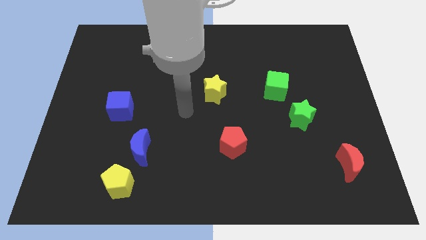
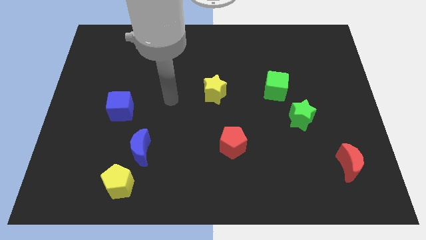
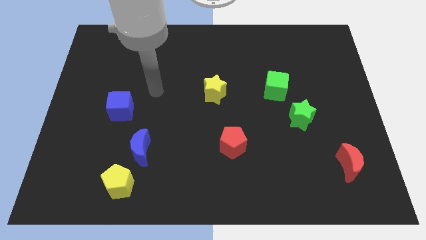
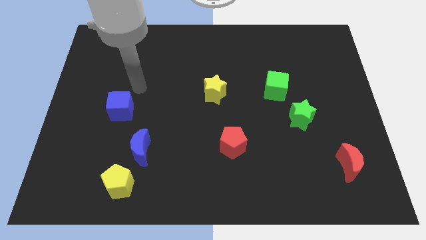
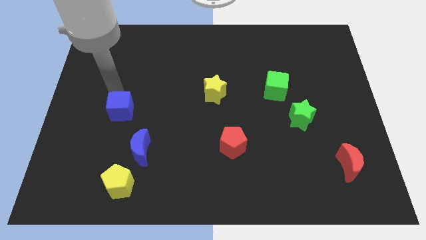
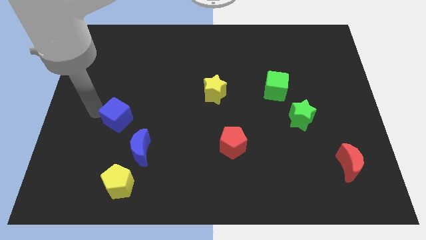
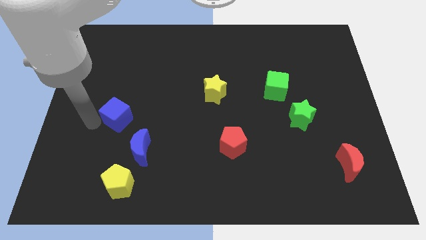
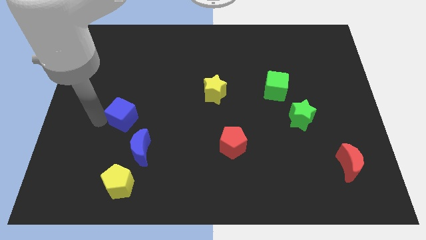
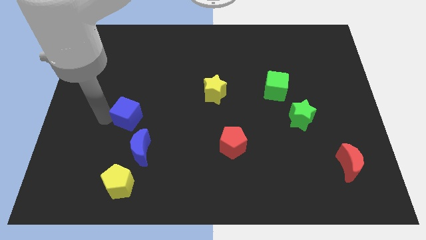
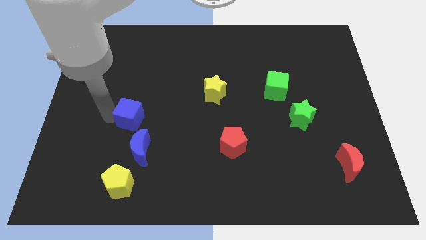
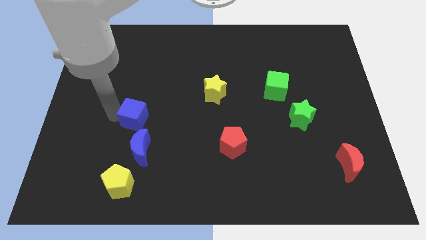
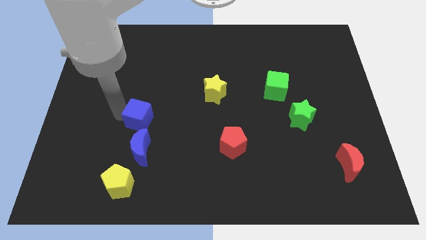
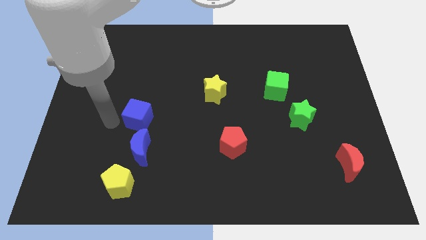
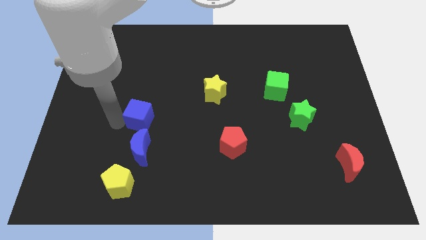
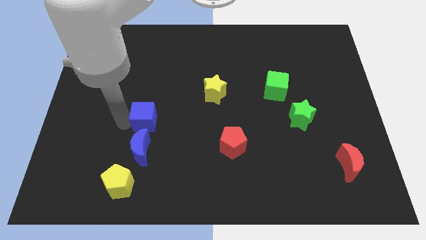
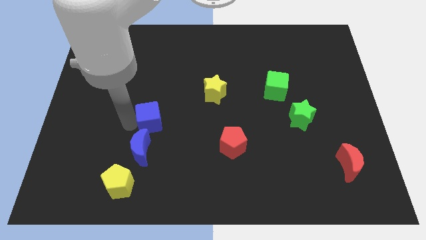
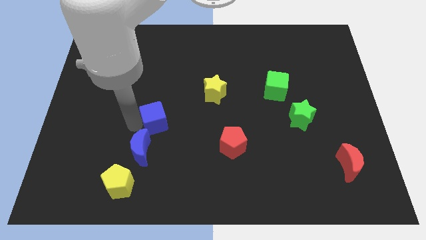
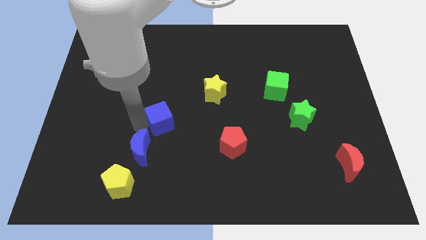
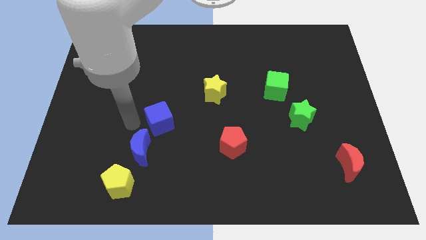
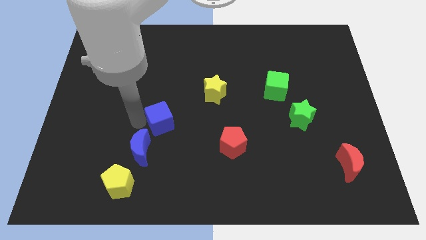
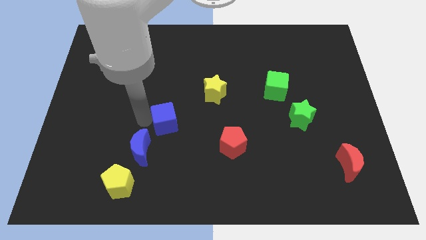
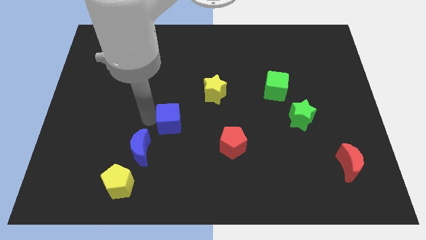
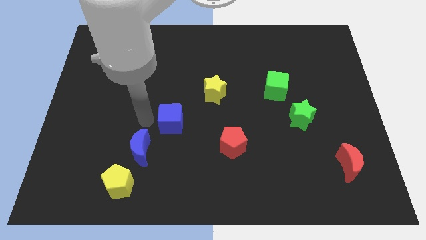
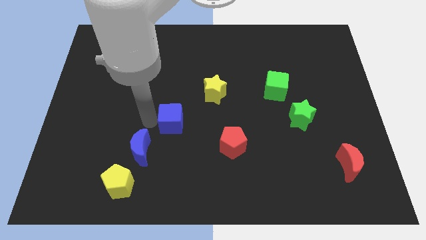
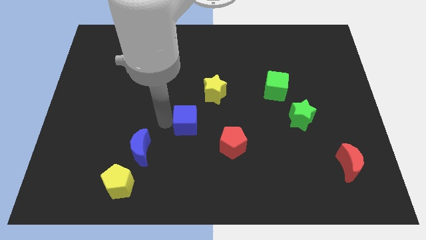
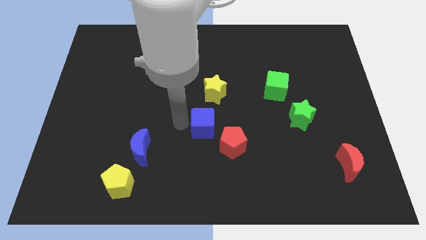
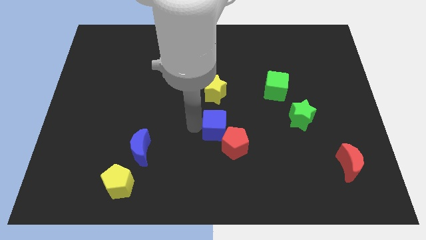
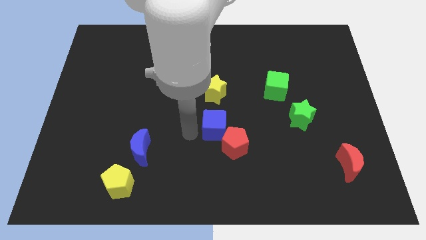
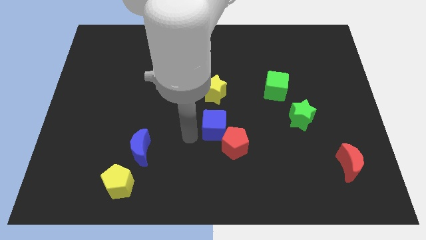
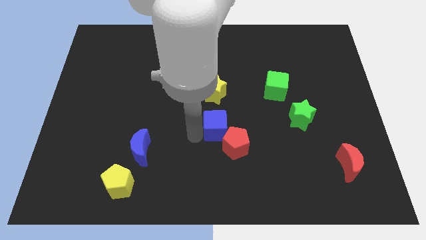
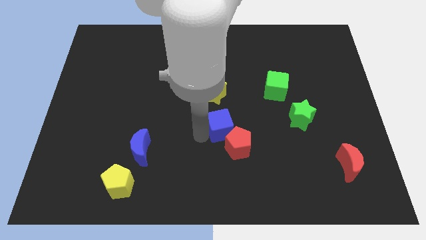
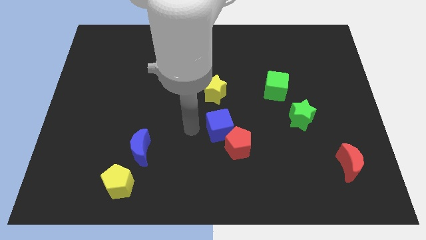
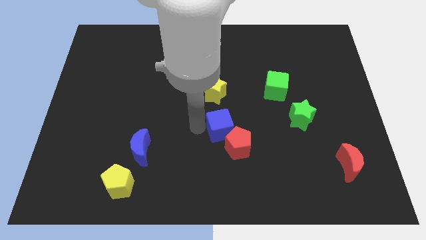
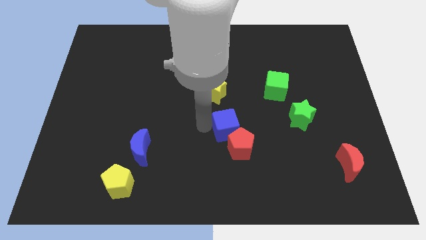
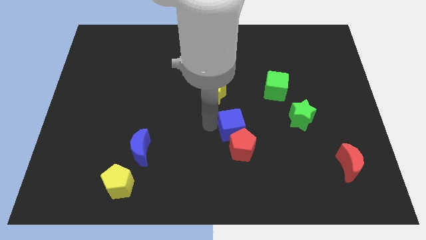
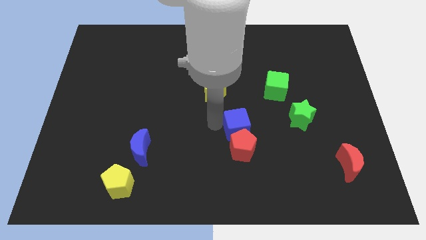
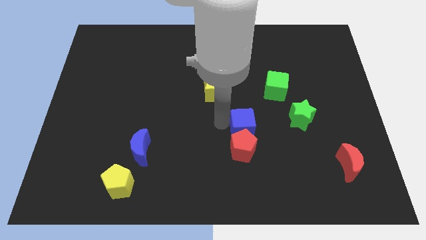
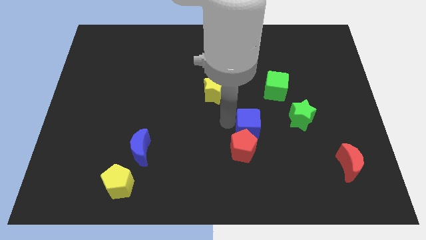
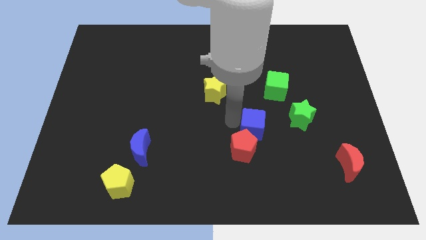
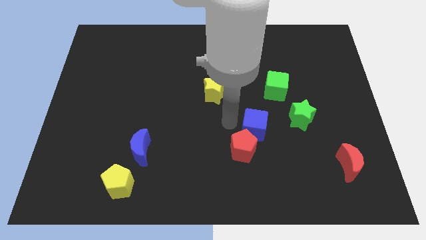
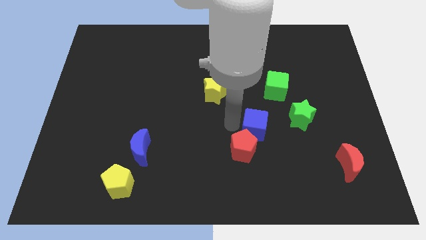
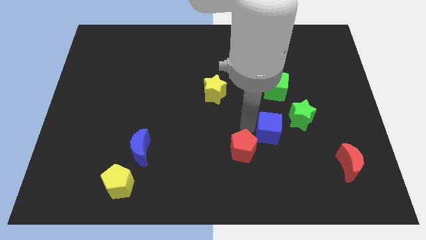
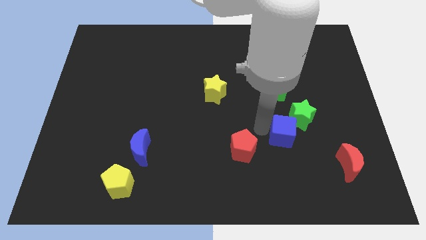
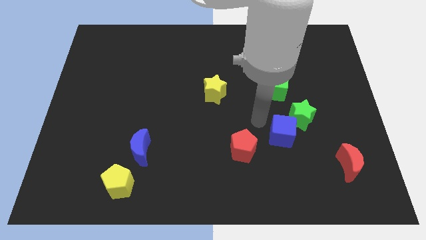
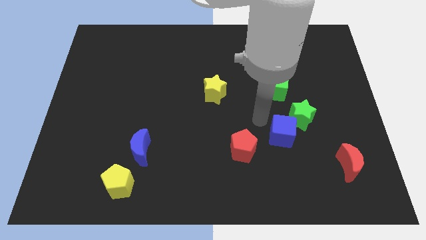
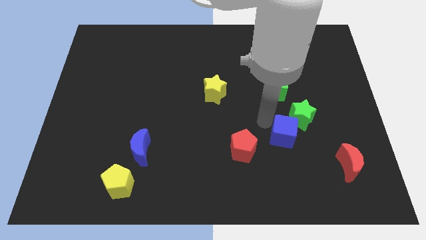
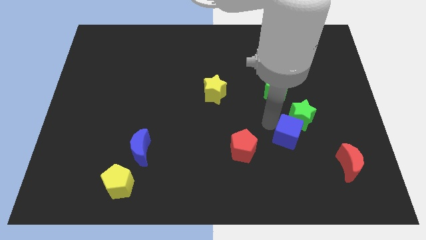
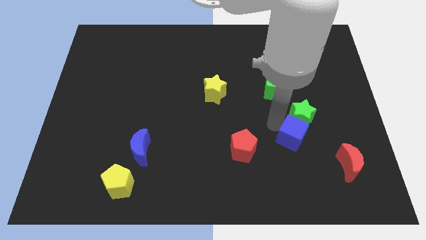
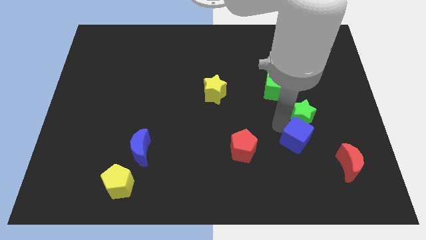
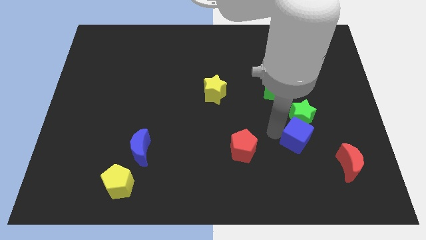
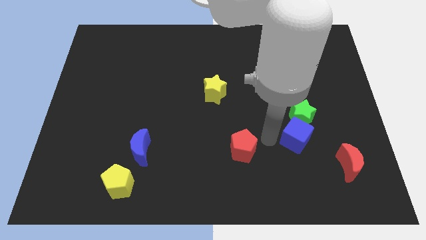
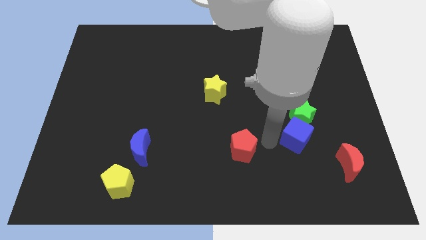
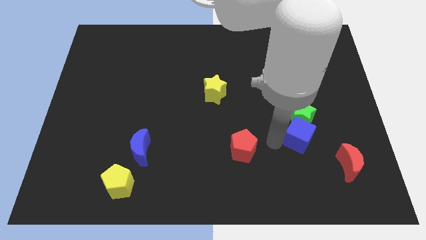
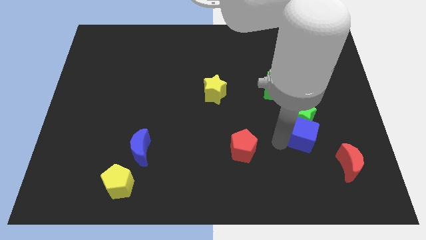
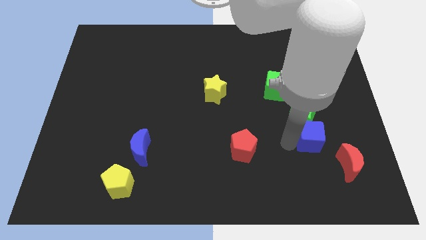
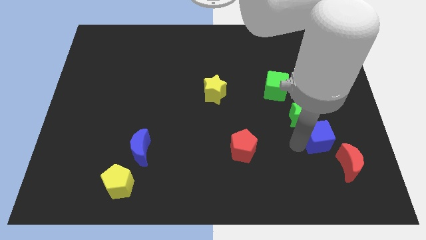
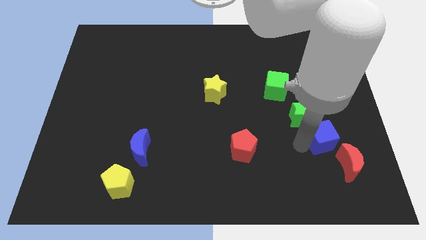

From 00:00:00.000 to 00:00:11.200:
move the blue cube to the top side of the red moon
